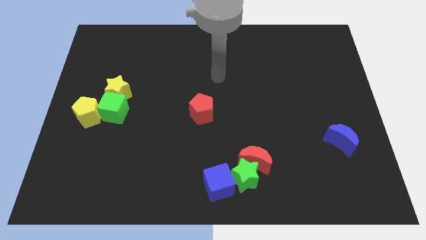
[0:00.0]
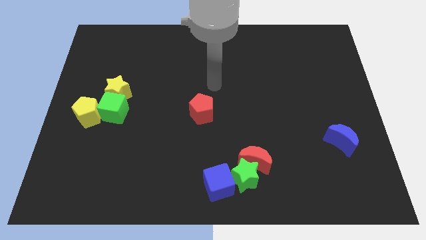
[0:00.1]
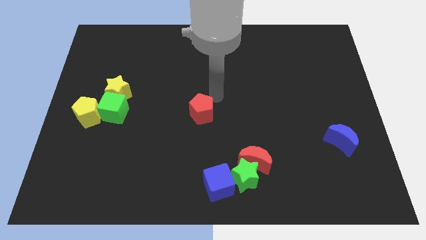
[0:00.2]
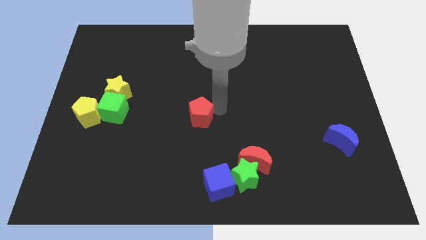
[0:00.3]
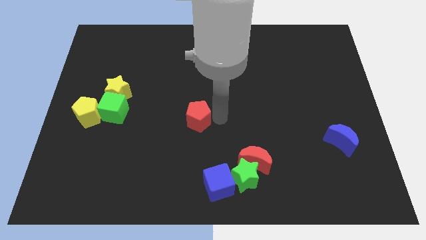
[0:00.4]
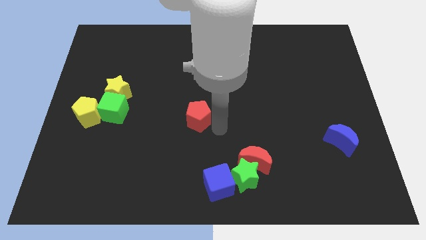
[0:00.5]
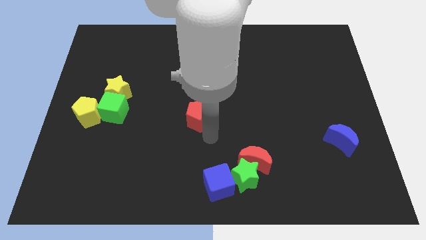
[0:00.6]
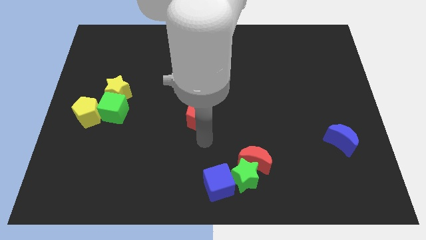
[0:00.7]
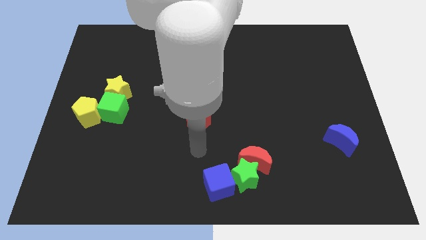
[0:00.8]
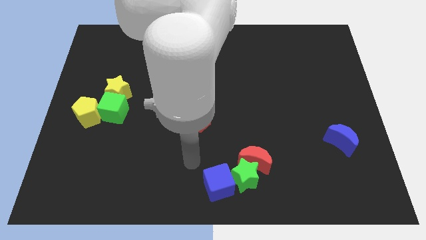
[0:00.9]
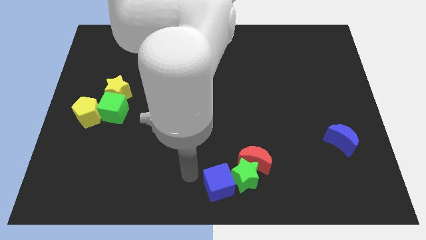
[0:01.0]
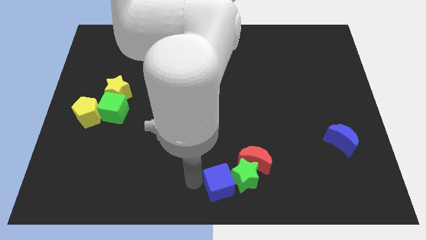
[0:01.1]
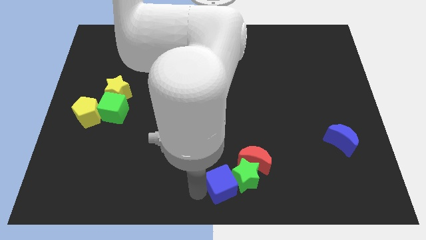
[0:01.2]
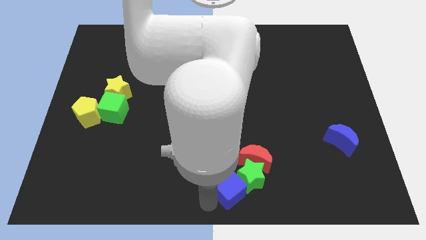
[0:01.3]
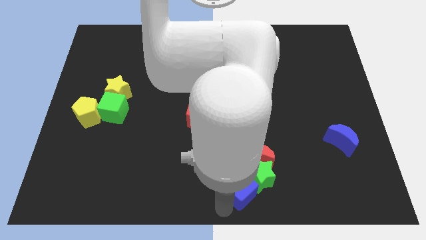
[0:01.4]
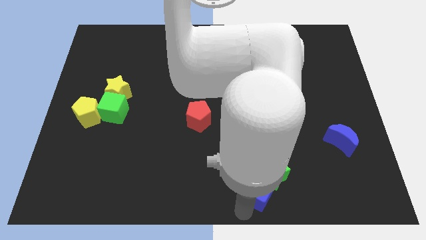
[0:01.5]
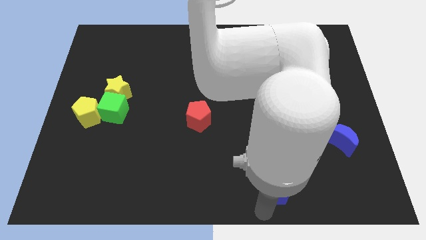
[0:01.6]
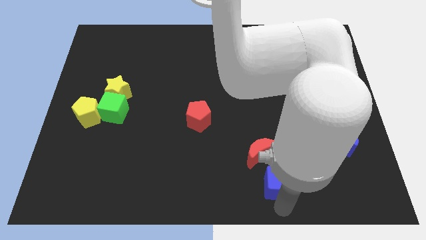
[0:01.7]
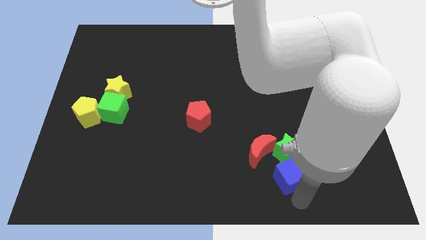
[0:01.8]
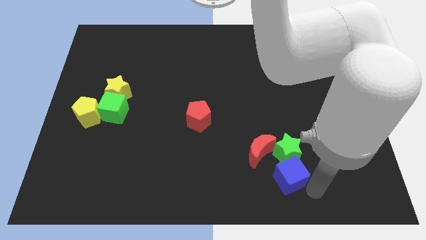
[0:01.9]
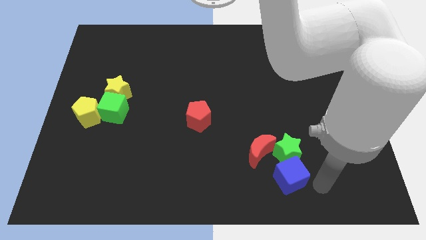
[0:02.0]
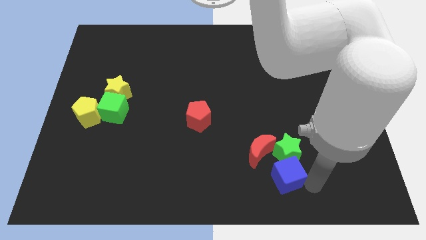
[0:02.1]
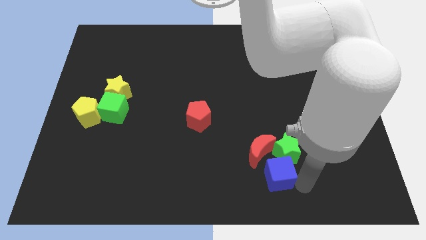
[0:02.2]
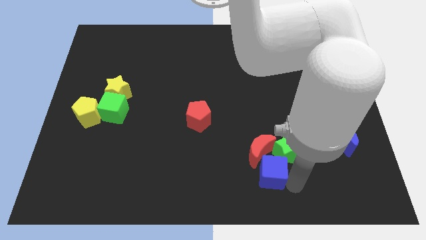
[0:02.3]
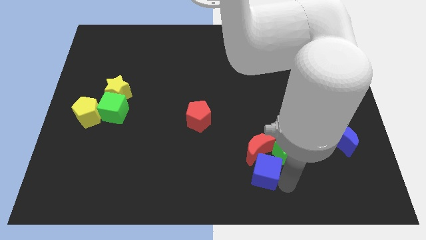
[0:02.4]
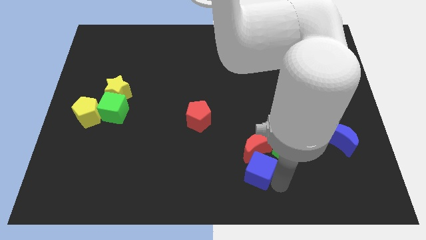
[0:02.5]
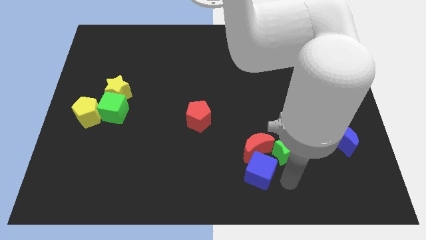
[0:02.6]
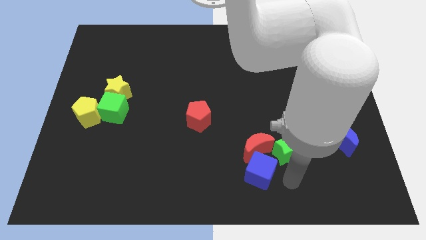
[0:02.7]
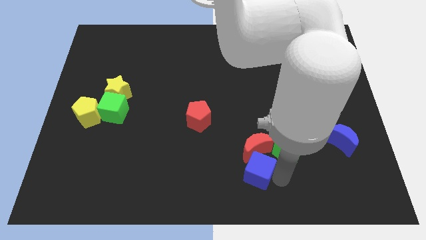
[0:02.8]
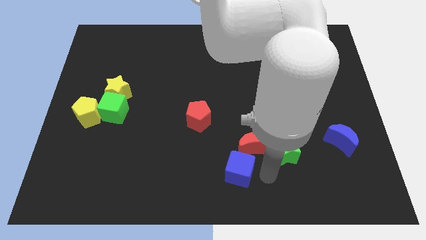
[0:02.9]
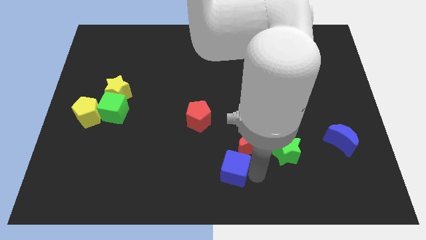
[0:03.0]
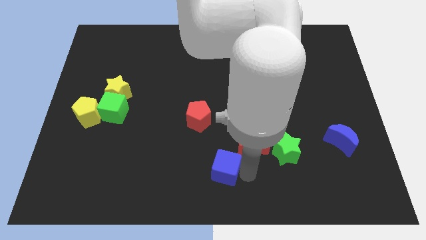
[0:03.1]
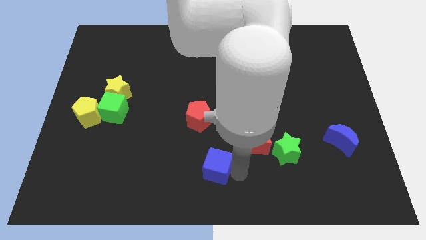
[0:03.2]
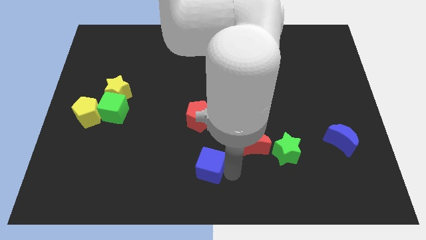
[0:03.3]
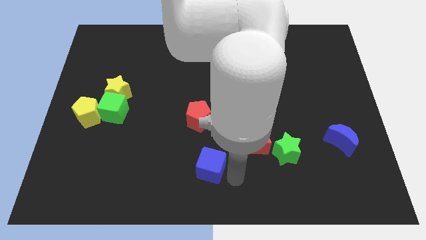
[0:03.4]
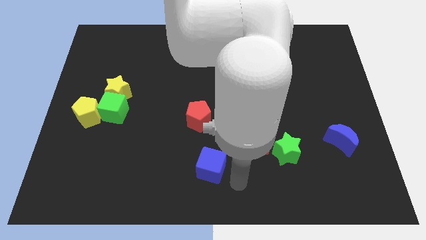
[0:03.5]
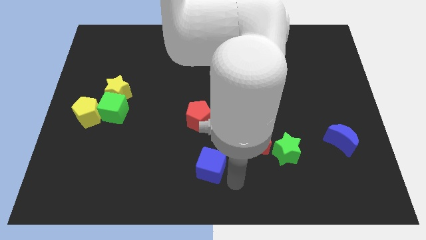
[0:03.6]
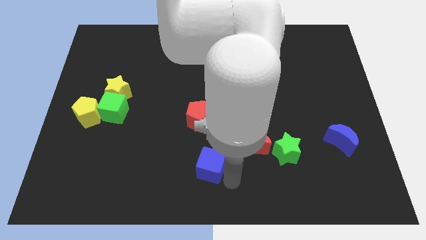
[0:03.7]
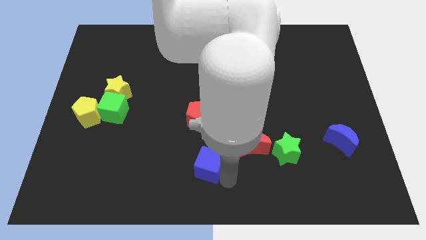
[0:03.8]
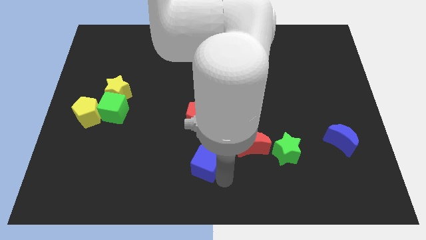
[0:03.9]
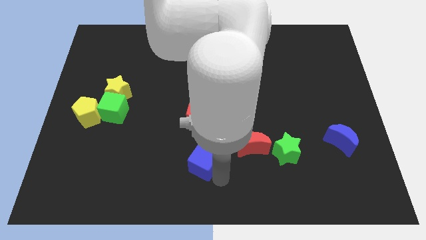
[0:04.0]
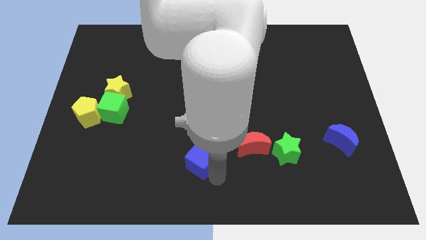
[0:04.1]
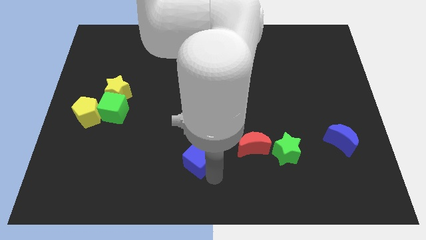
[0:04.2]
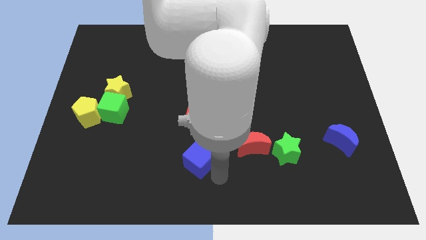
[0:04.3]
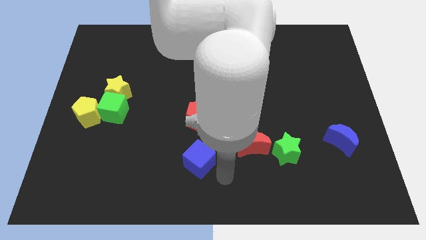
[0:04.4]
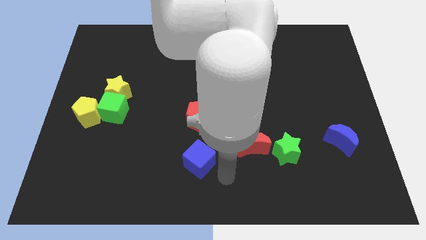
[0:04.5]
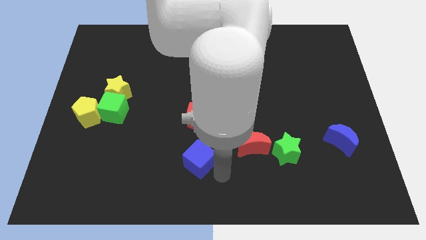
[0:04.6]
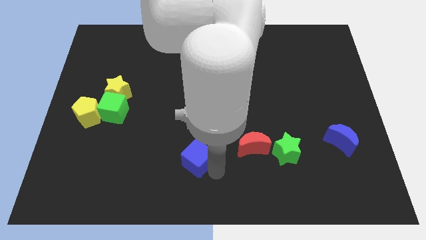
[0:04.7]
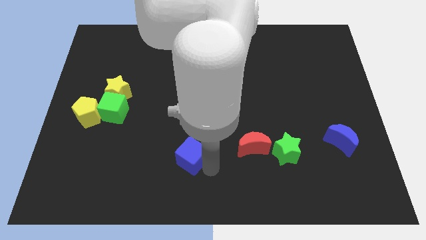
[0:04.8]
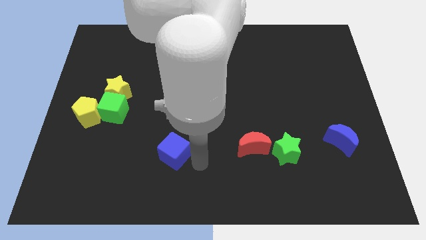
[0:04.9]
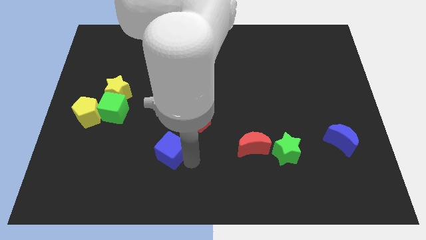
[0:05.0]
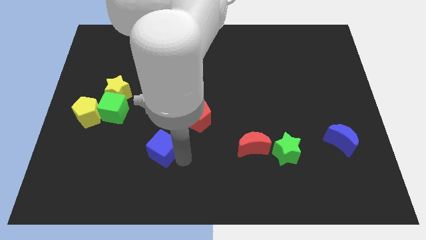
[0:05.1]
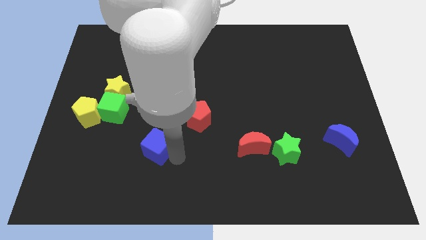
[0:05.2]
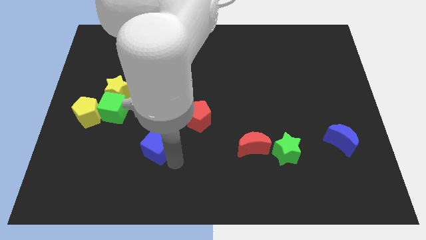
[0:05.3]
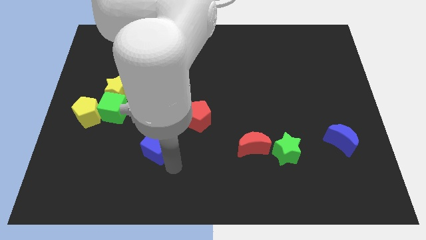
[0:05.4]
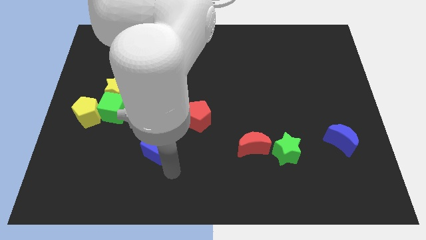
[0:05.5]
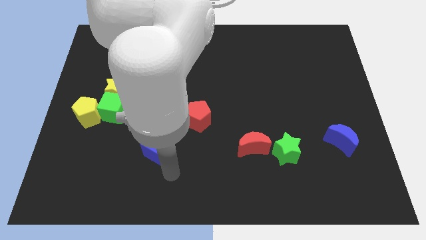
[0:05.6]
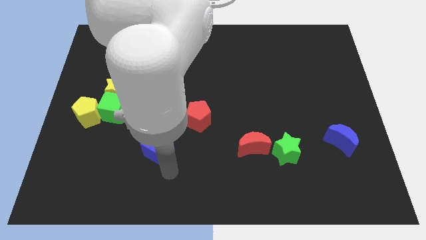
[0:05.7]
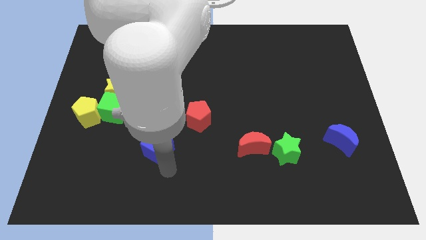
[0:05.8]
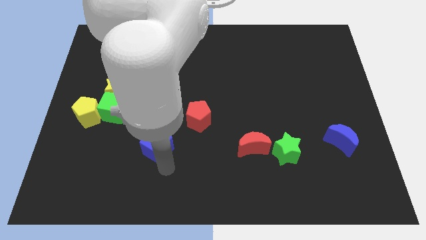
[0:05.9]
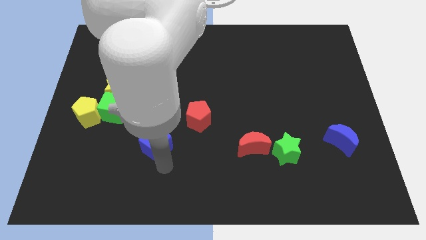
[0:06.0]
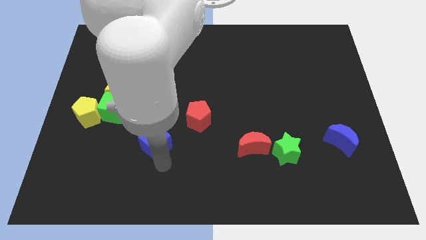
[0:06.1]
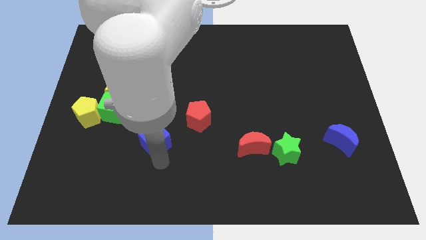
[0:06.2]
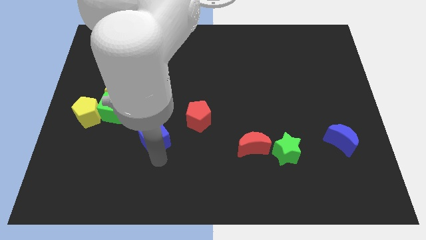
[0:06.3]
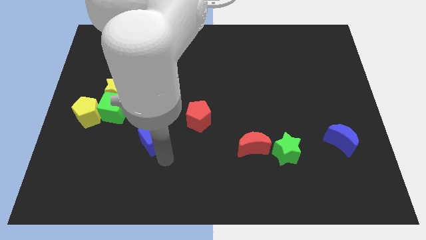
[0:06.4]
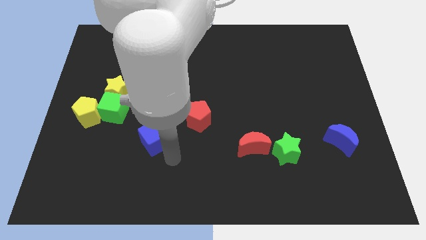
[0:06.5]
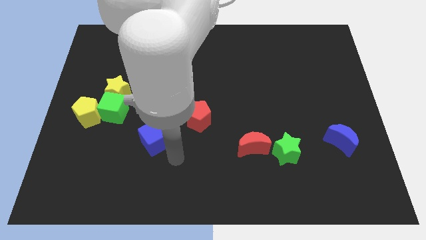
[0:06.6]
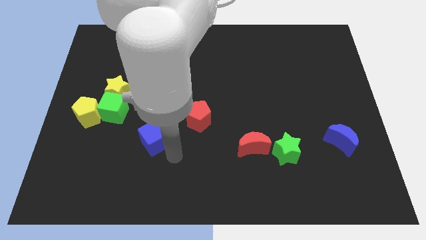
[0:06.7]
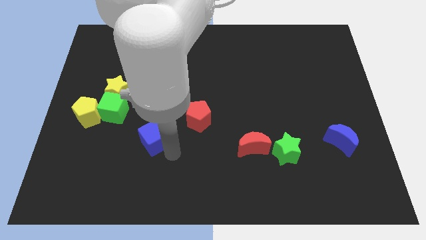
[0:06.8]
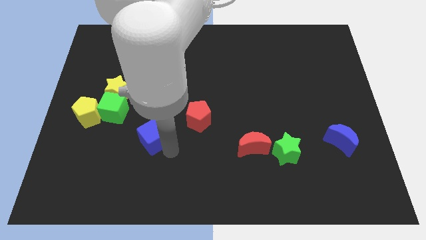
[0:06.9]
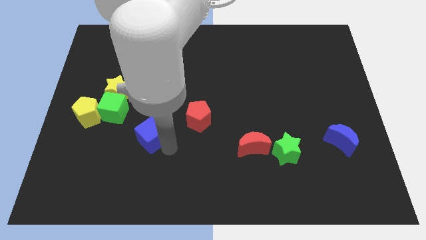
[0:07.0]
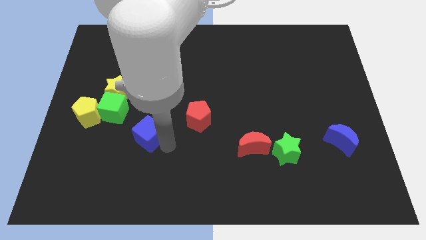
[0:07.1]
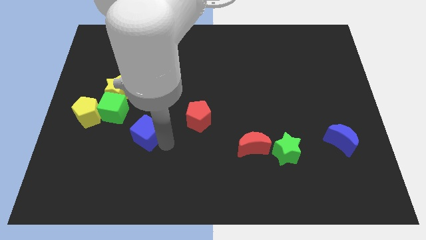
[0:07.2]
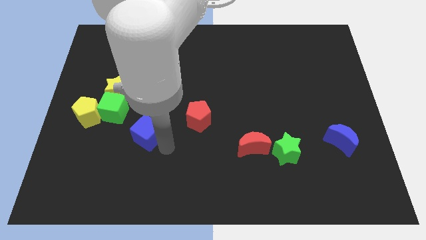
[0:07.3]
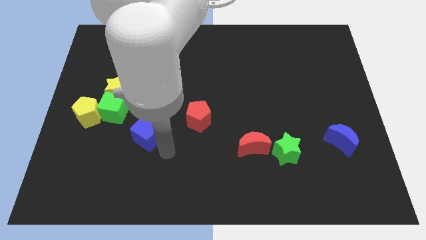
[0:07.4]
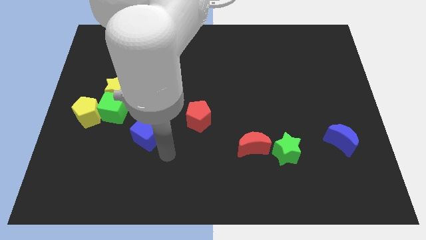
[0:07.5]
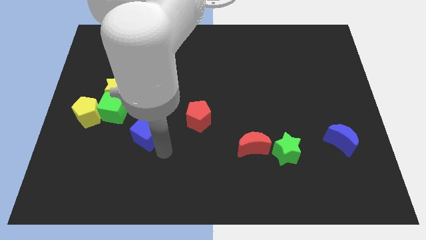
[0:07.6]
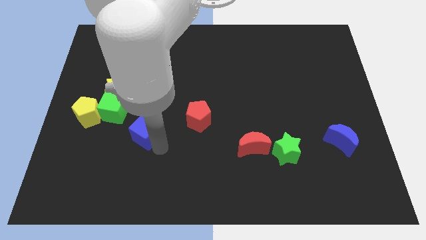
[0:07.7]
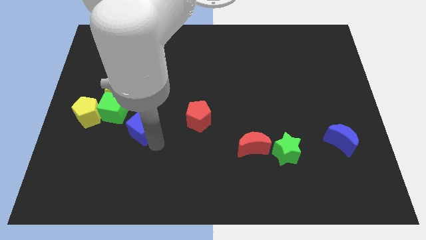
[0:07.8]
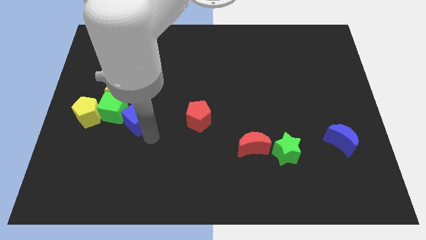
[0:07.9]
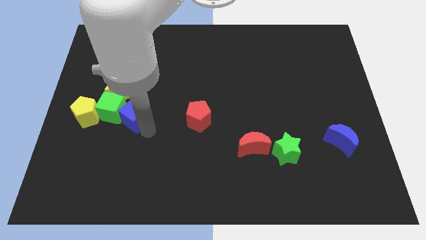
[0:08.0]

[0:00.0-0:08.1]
move the blue cube close to the green cube
